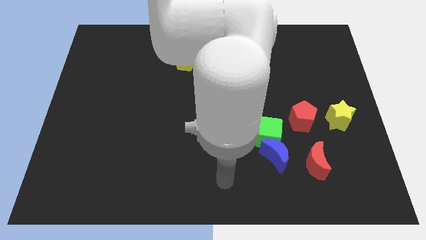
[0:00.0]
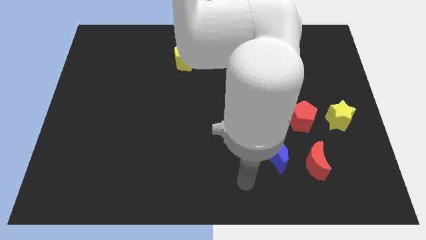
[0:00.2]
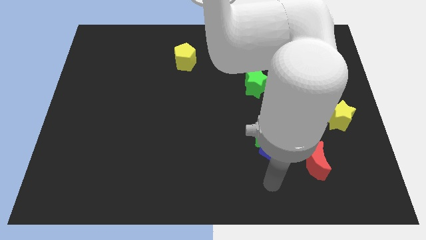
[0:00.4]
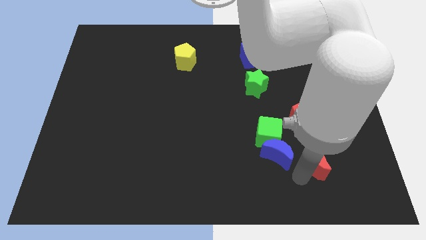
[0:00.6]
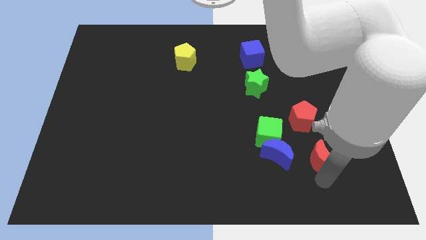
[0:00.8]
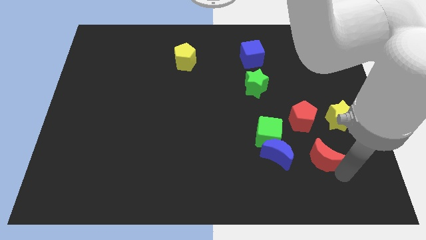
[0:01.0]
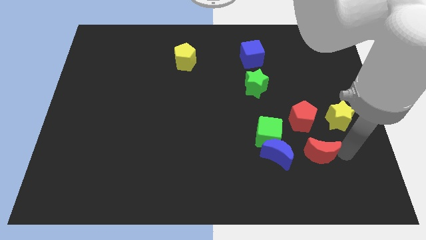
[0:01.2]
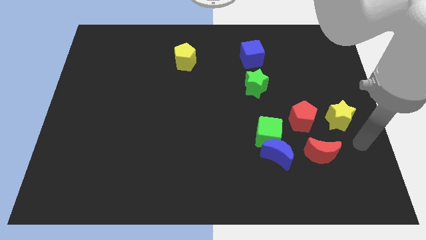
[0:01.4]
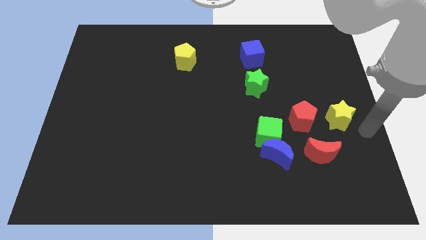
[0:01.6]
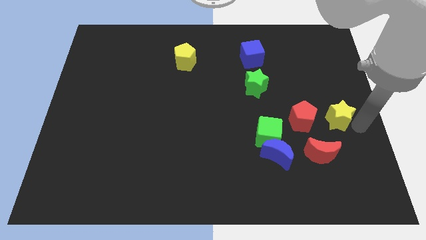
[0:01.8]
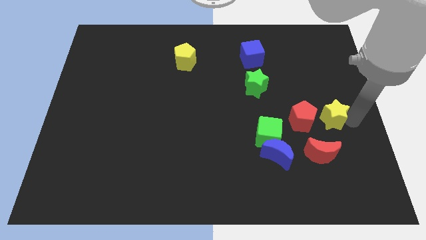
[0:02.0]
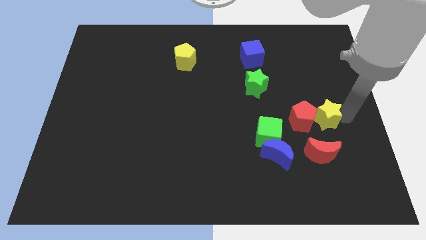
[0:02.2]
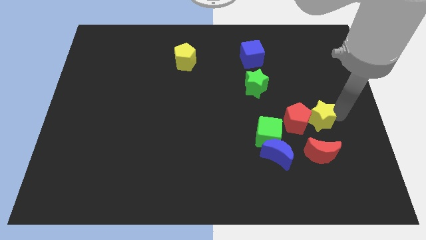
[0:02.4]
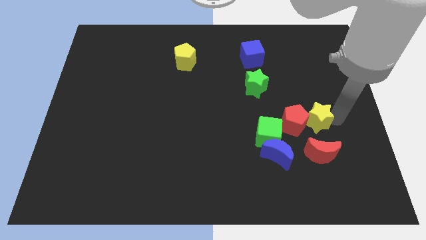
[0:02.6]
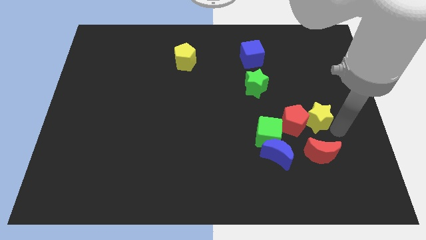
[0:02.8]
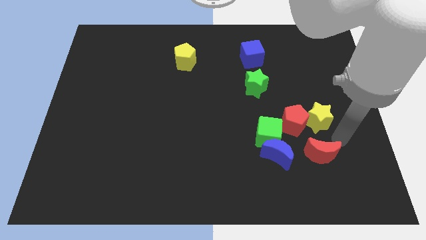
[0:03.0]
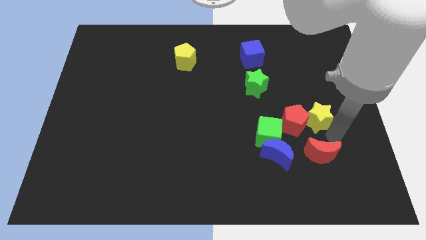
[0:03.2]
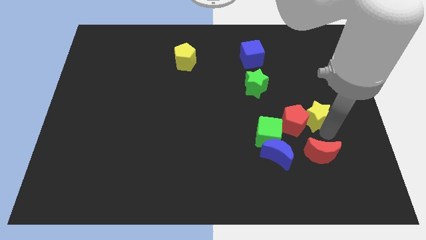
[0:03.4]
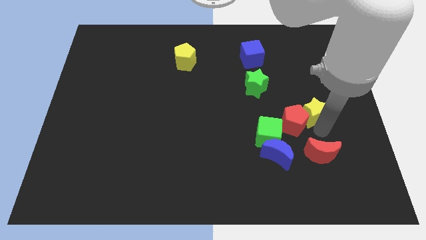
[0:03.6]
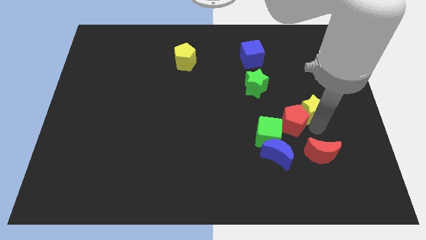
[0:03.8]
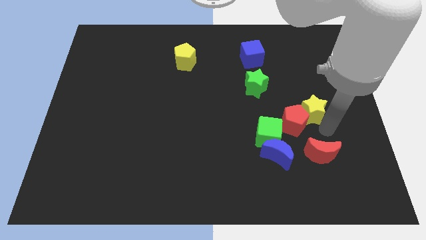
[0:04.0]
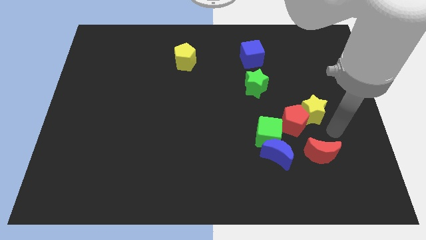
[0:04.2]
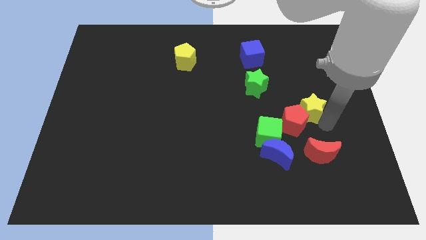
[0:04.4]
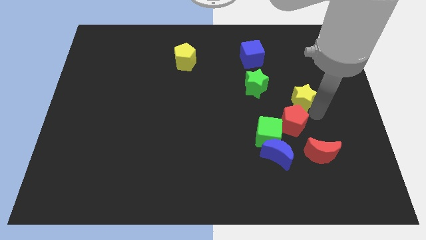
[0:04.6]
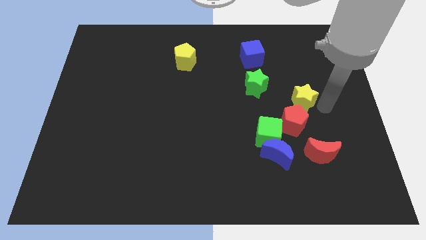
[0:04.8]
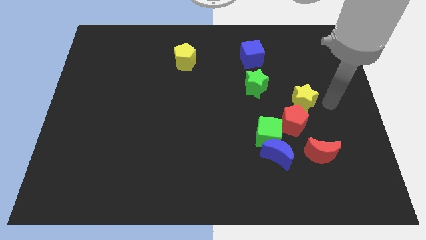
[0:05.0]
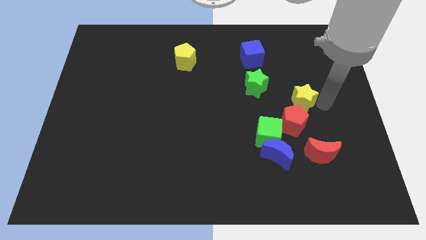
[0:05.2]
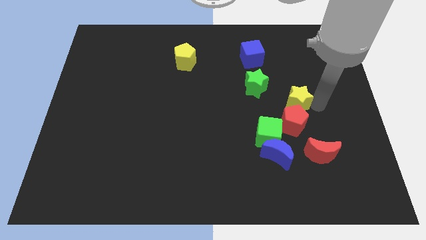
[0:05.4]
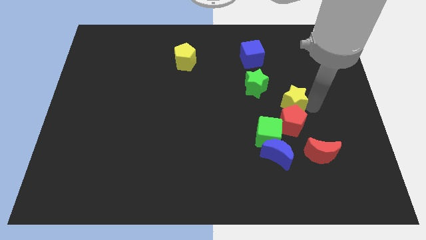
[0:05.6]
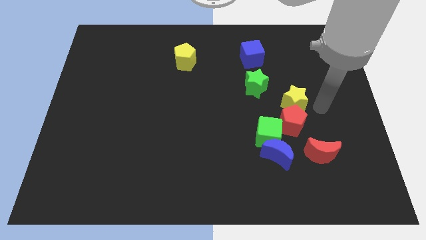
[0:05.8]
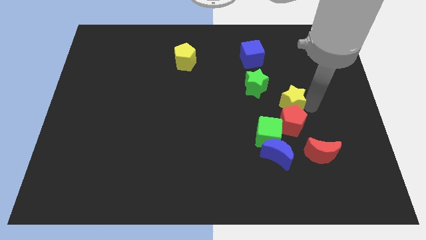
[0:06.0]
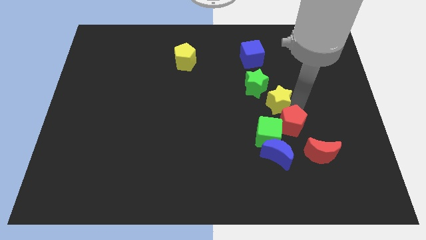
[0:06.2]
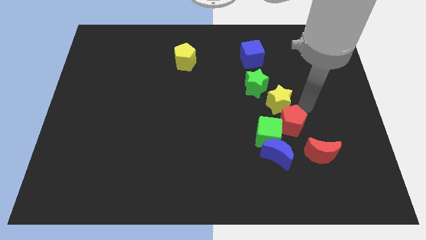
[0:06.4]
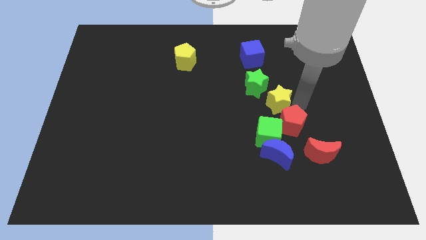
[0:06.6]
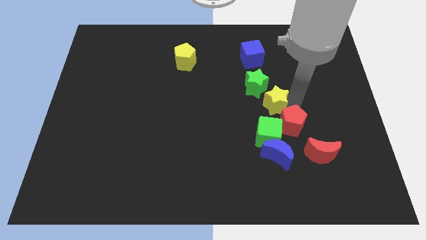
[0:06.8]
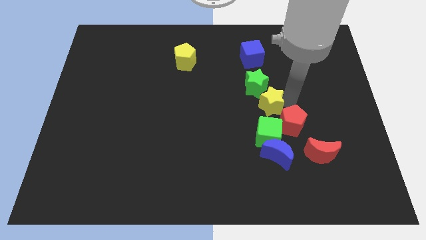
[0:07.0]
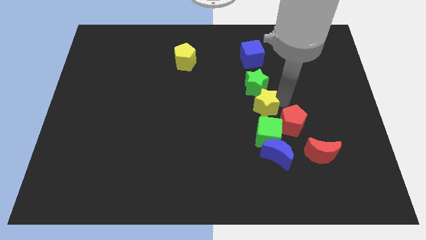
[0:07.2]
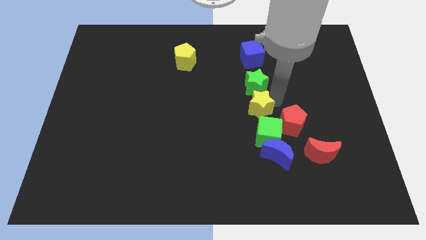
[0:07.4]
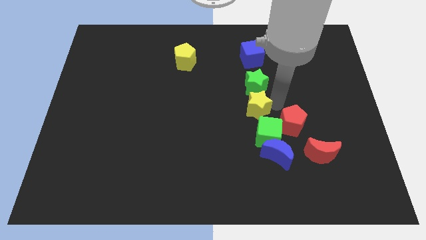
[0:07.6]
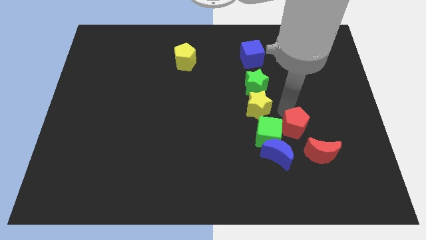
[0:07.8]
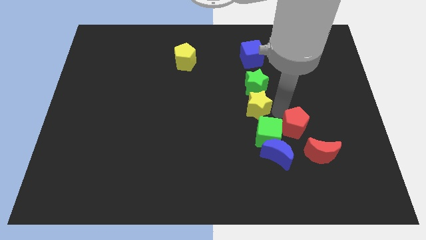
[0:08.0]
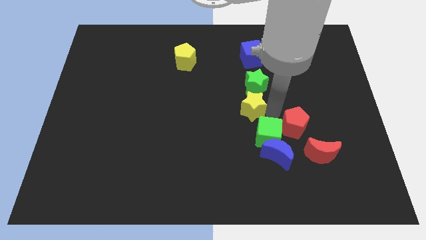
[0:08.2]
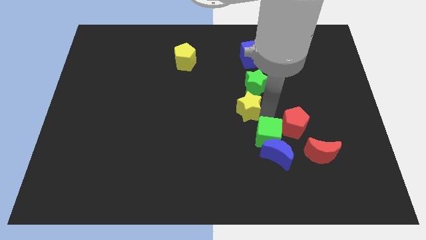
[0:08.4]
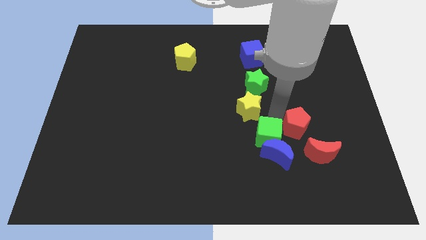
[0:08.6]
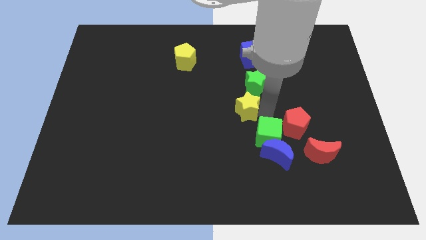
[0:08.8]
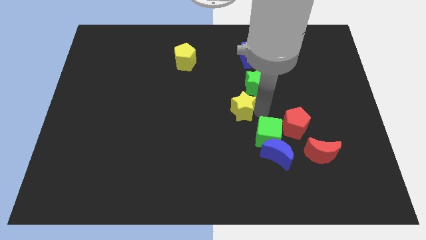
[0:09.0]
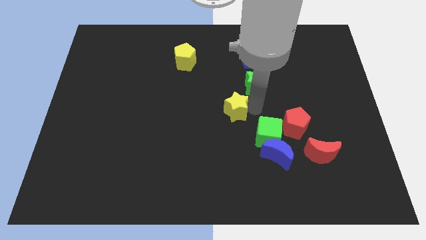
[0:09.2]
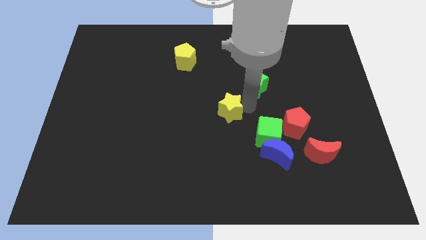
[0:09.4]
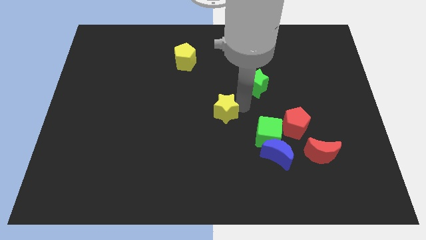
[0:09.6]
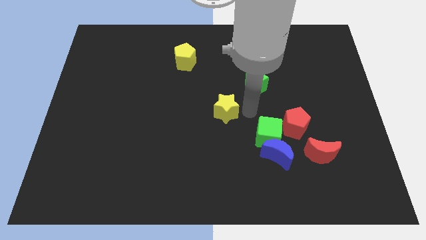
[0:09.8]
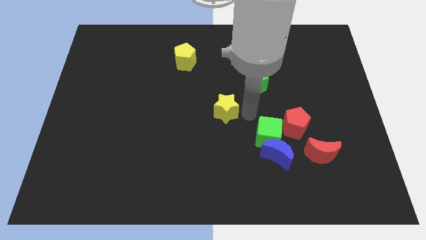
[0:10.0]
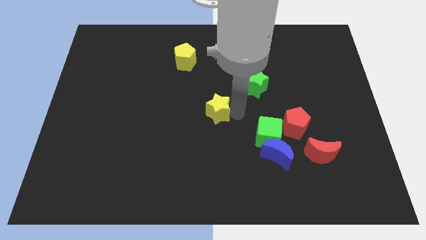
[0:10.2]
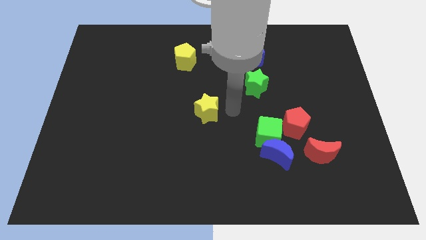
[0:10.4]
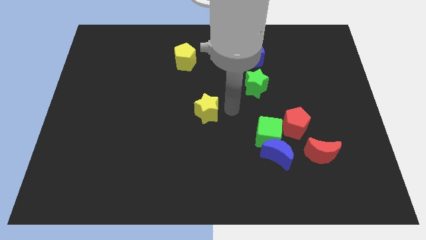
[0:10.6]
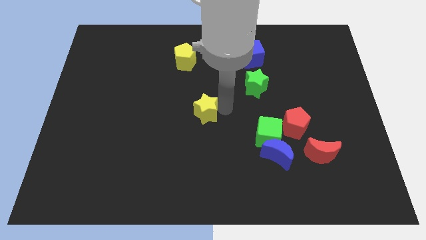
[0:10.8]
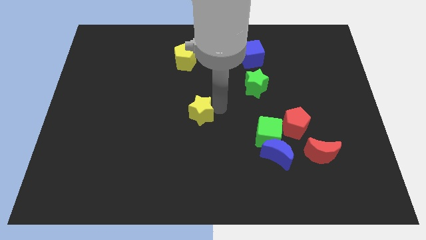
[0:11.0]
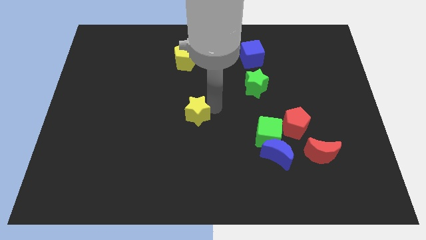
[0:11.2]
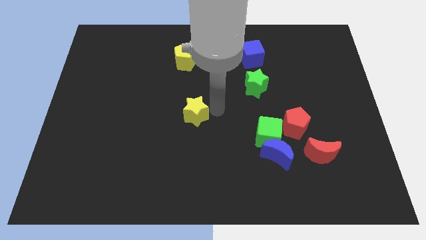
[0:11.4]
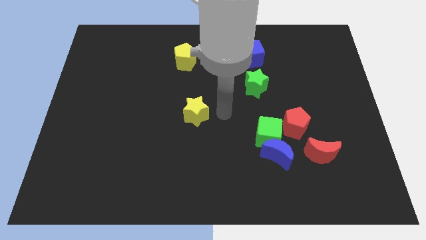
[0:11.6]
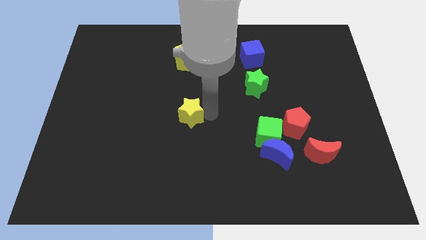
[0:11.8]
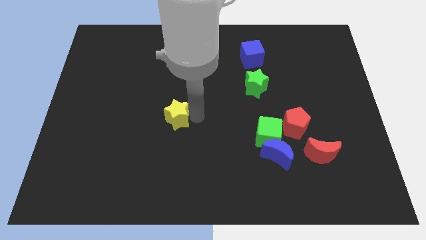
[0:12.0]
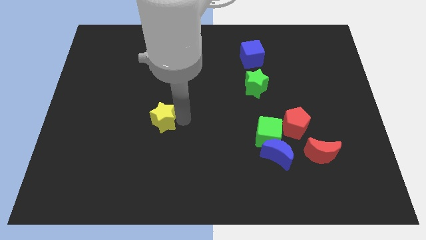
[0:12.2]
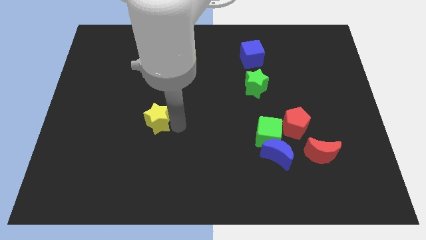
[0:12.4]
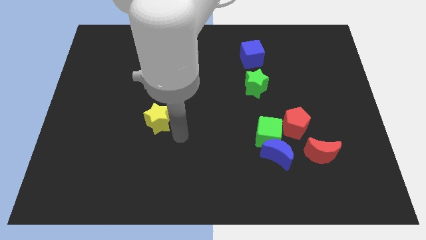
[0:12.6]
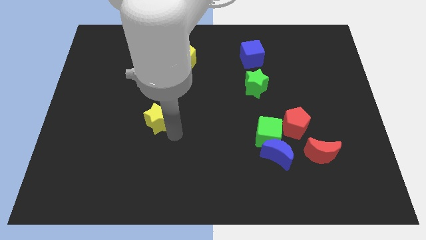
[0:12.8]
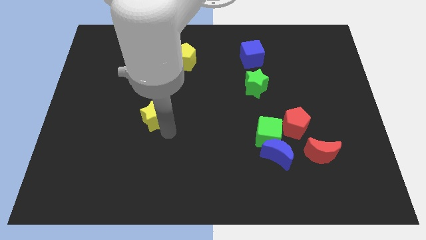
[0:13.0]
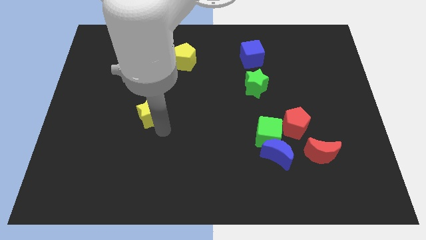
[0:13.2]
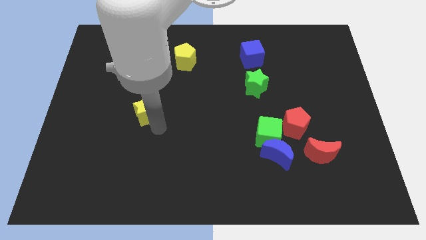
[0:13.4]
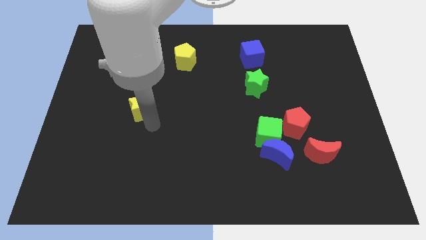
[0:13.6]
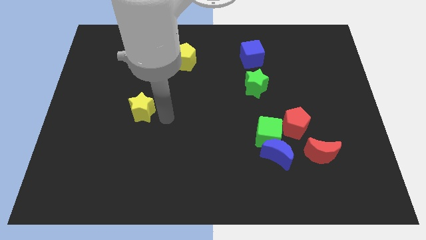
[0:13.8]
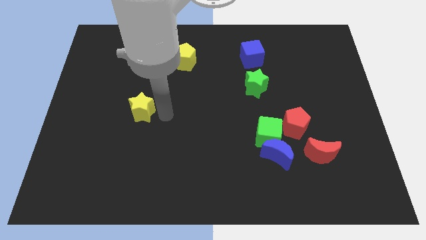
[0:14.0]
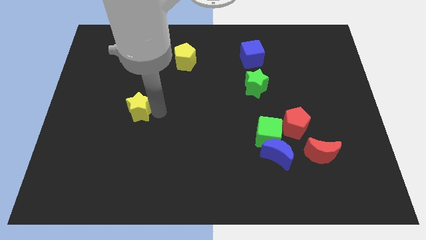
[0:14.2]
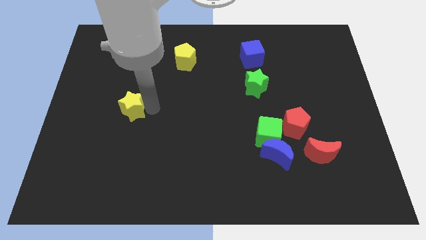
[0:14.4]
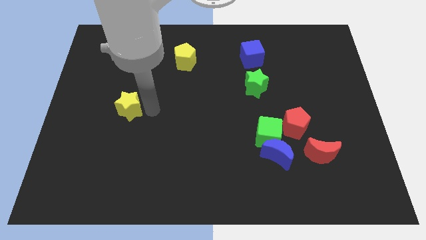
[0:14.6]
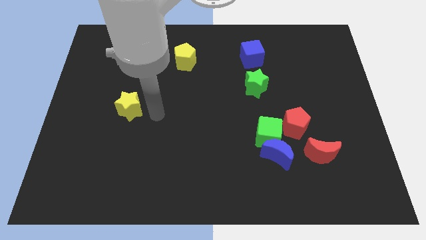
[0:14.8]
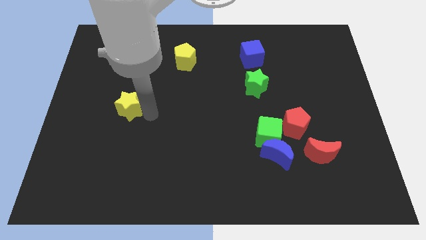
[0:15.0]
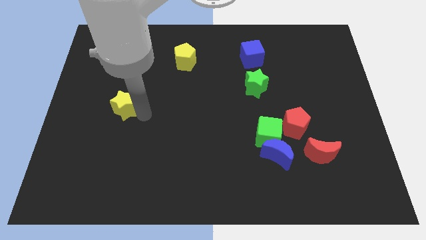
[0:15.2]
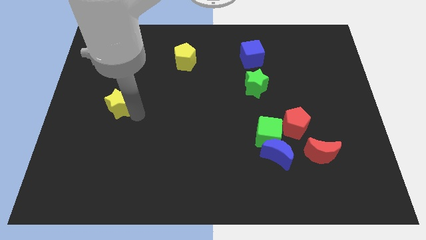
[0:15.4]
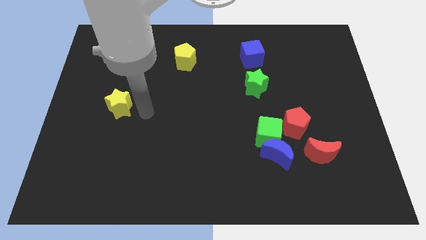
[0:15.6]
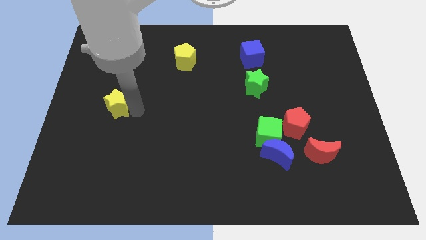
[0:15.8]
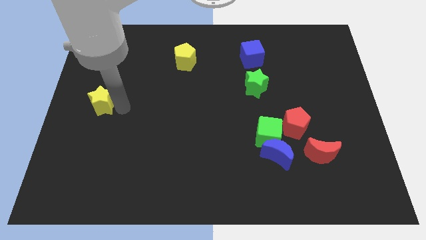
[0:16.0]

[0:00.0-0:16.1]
move the yellow star to the left side
